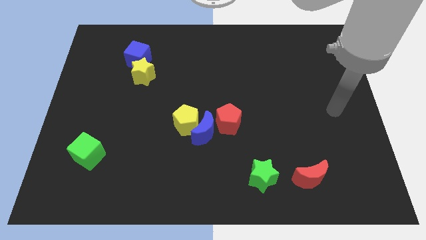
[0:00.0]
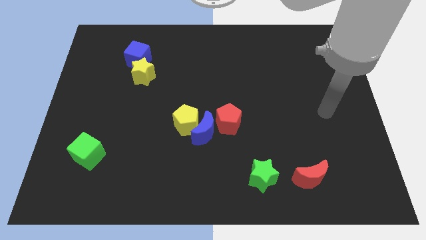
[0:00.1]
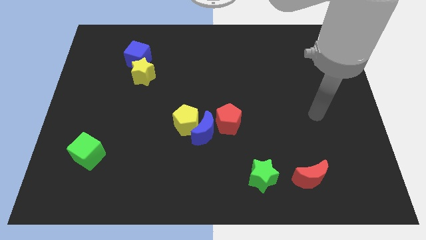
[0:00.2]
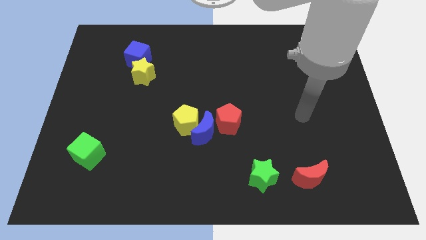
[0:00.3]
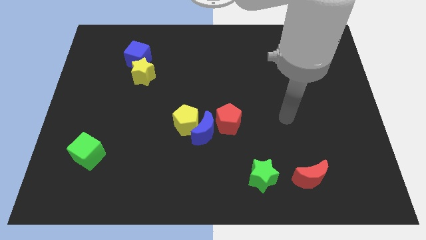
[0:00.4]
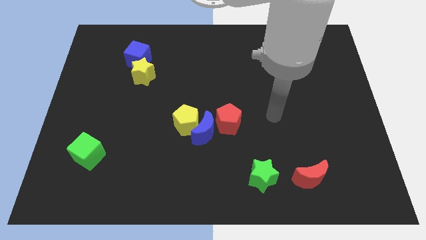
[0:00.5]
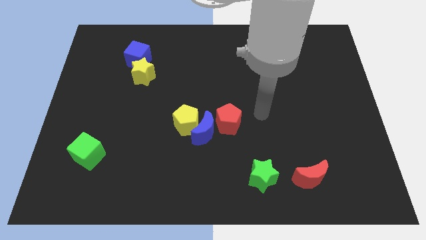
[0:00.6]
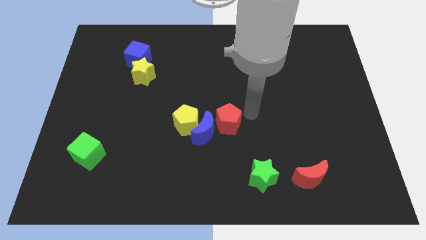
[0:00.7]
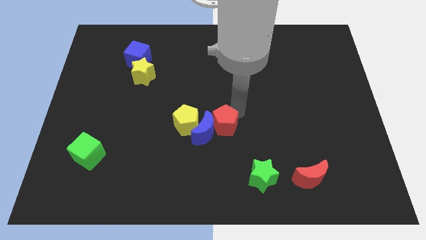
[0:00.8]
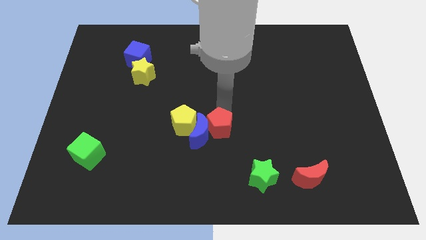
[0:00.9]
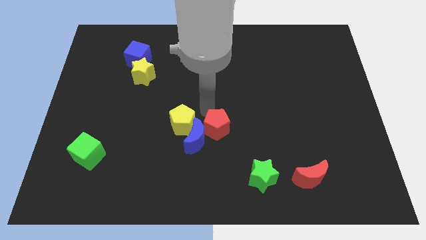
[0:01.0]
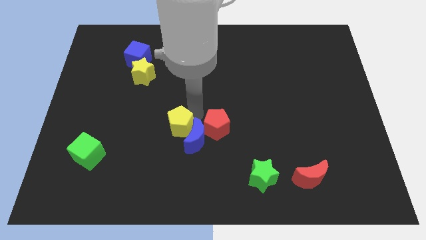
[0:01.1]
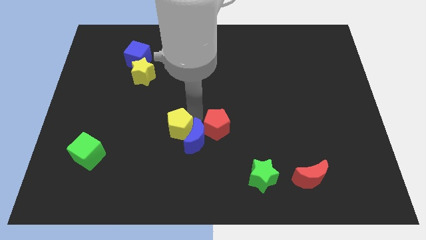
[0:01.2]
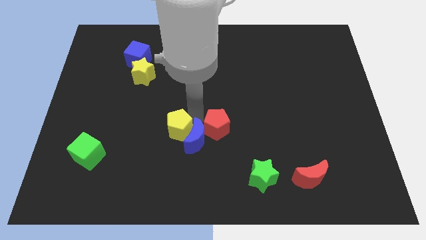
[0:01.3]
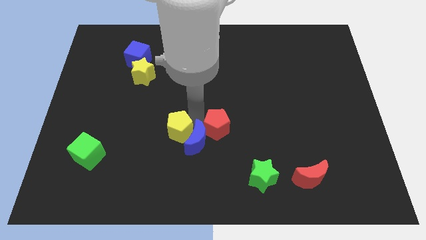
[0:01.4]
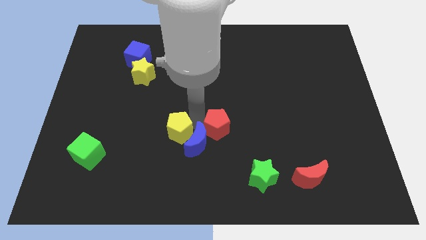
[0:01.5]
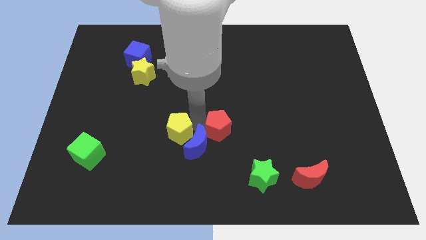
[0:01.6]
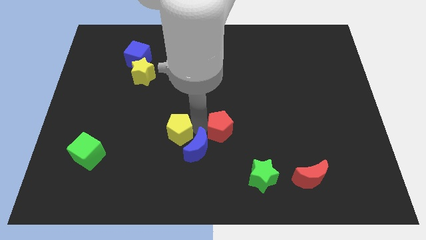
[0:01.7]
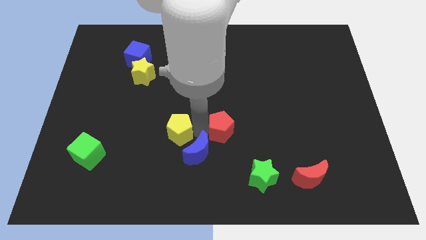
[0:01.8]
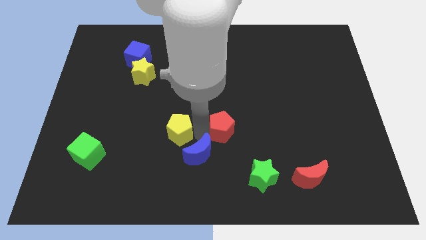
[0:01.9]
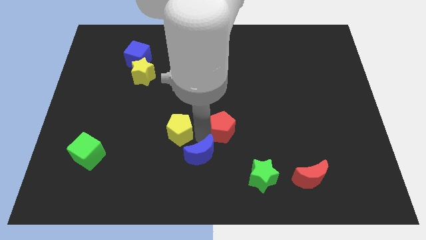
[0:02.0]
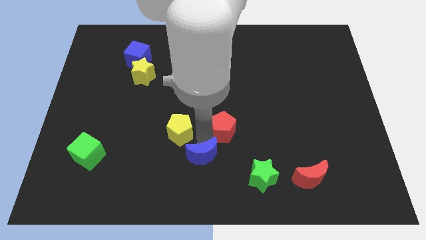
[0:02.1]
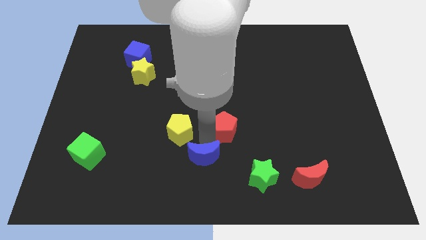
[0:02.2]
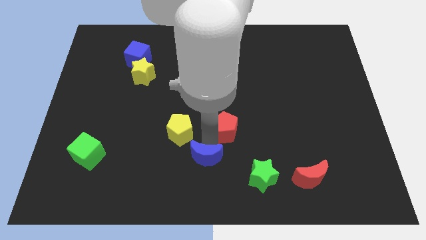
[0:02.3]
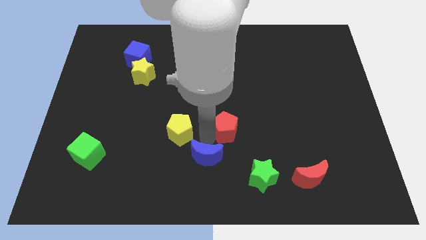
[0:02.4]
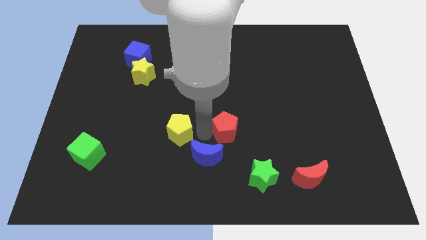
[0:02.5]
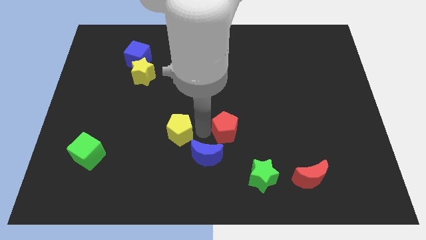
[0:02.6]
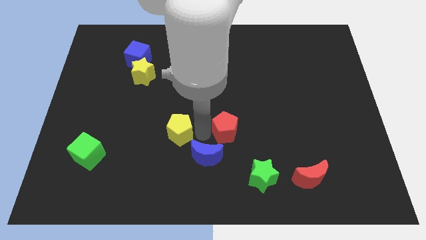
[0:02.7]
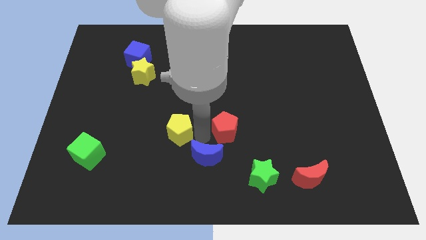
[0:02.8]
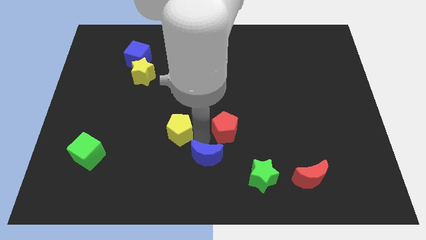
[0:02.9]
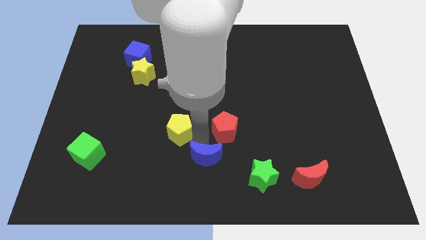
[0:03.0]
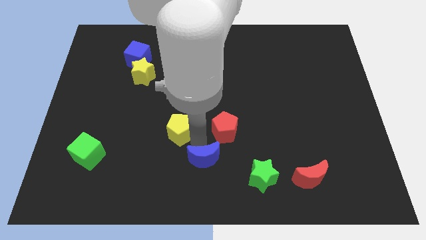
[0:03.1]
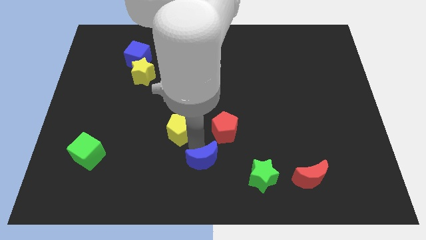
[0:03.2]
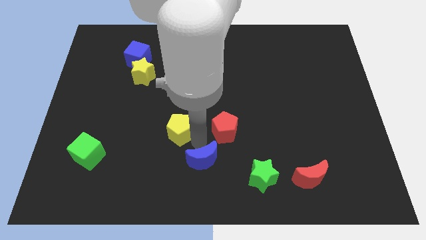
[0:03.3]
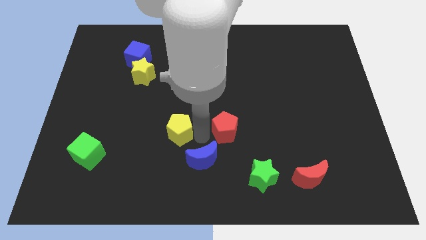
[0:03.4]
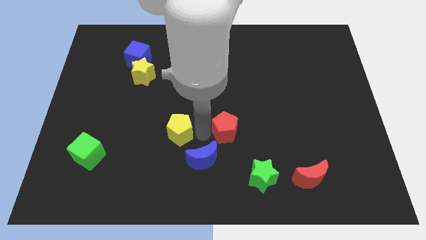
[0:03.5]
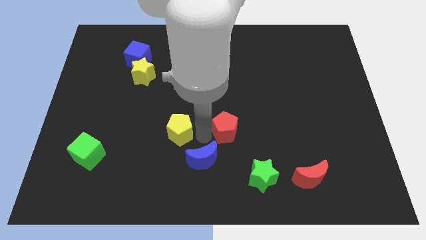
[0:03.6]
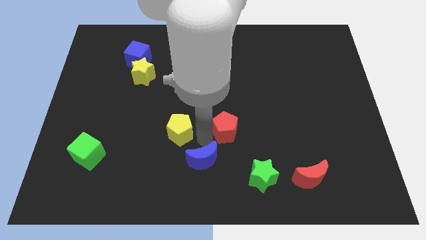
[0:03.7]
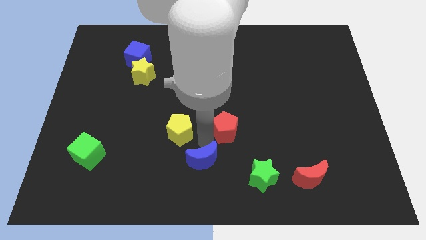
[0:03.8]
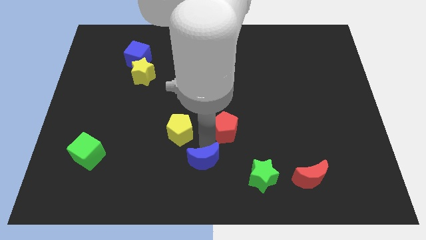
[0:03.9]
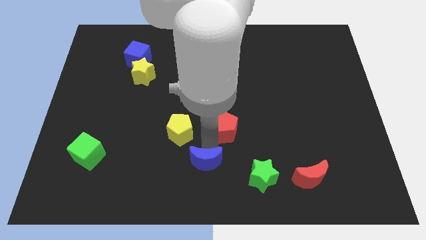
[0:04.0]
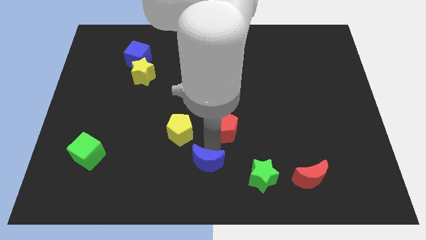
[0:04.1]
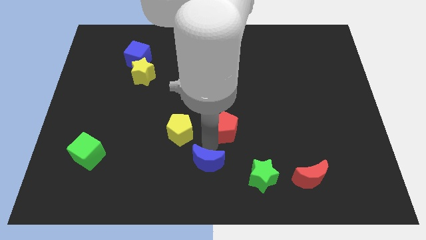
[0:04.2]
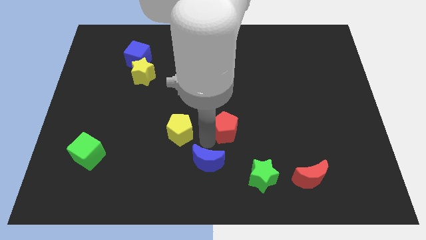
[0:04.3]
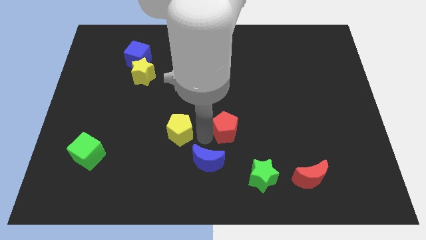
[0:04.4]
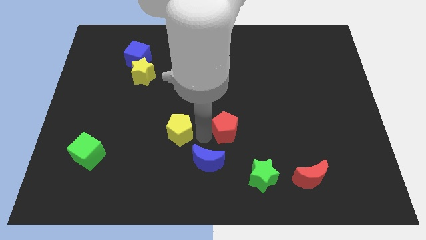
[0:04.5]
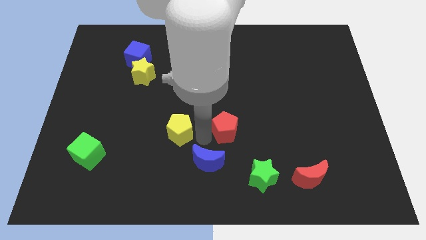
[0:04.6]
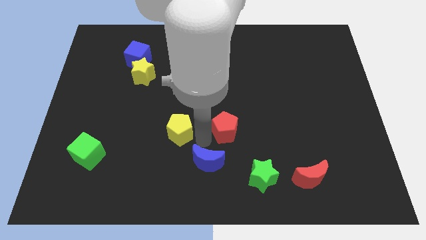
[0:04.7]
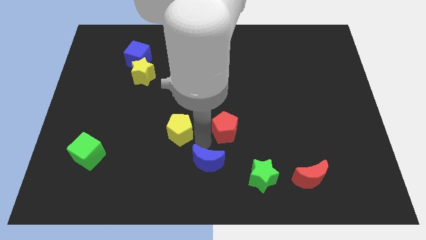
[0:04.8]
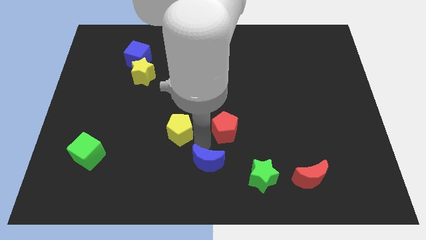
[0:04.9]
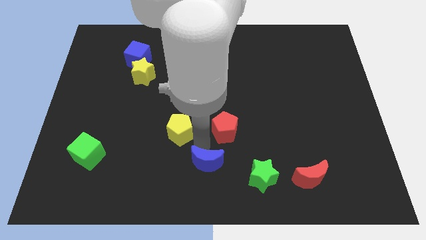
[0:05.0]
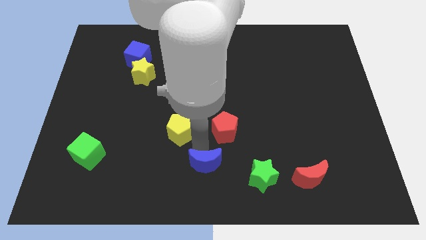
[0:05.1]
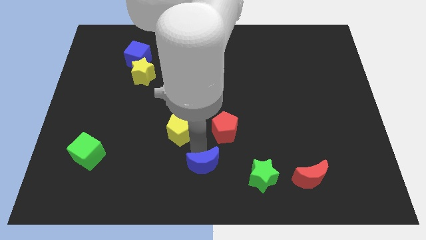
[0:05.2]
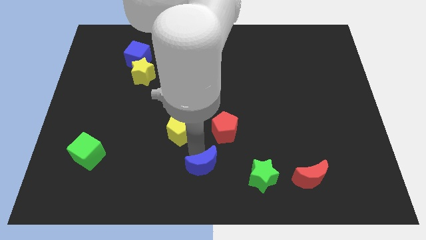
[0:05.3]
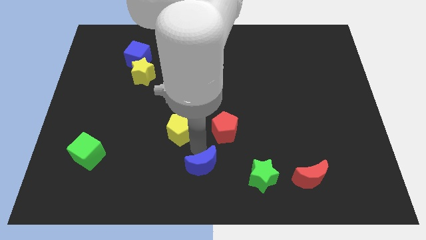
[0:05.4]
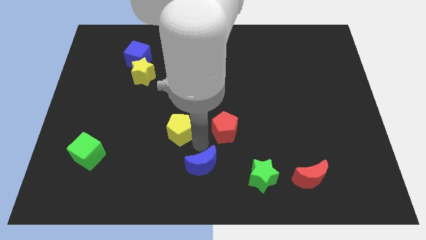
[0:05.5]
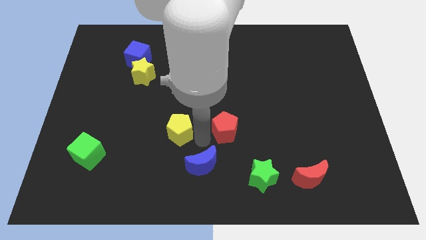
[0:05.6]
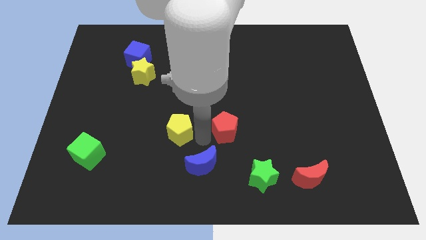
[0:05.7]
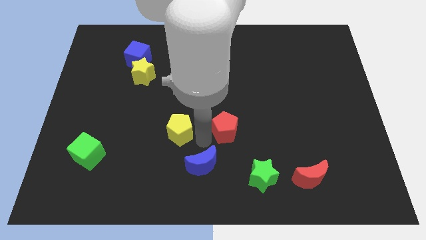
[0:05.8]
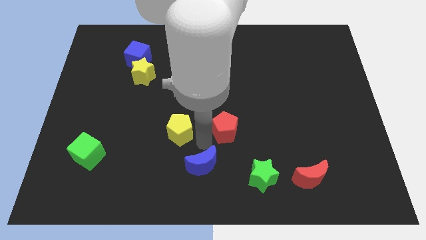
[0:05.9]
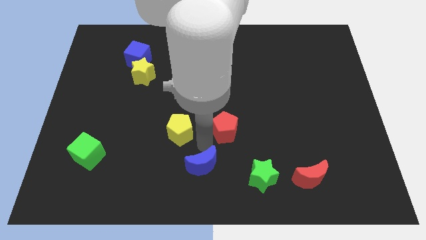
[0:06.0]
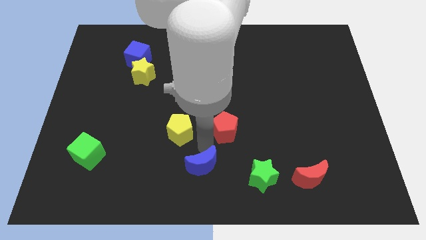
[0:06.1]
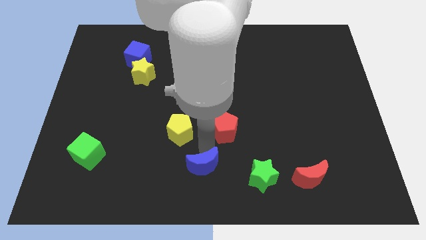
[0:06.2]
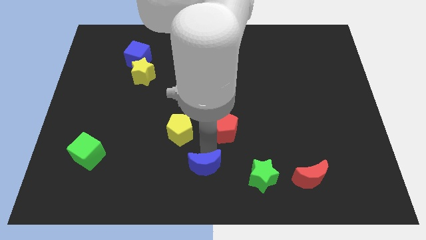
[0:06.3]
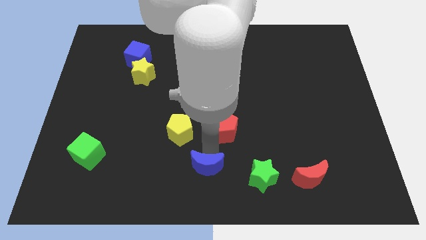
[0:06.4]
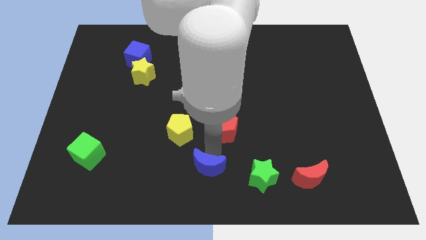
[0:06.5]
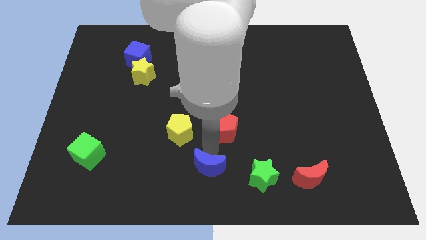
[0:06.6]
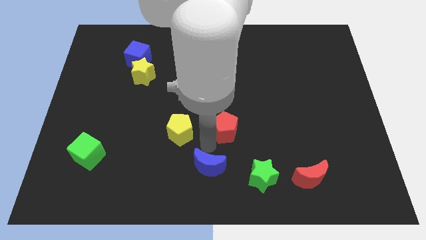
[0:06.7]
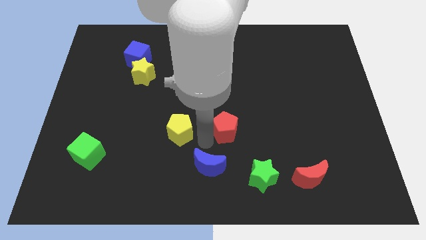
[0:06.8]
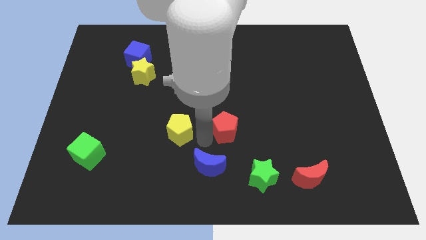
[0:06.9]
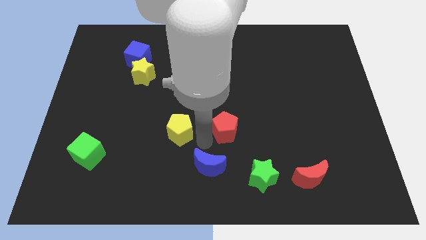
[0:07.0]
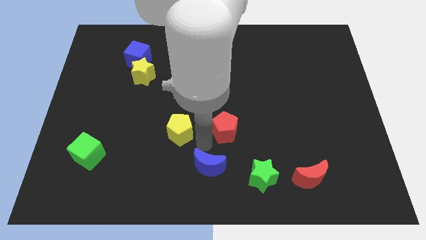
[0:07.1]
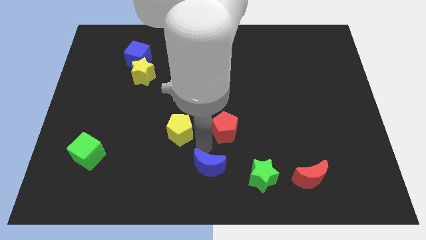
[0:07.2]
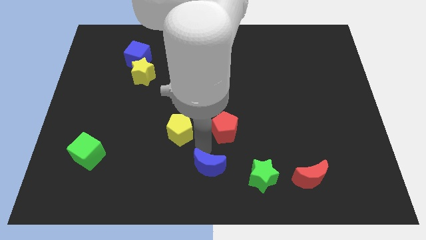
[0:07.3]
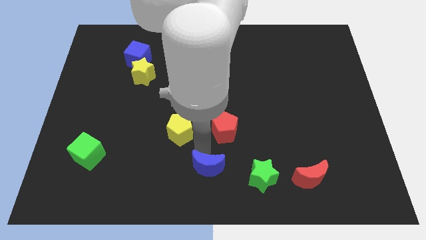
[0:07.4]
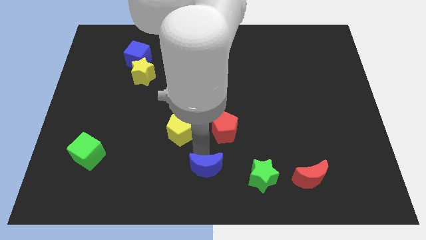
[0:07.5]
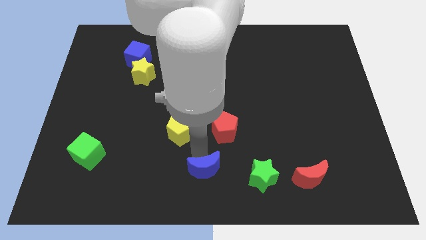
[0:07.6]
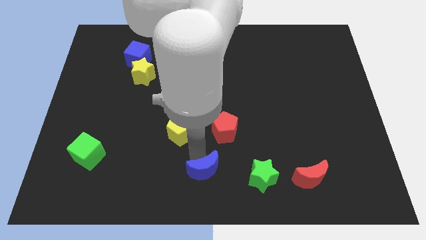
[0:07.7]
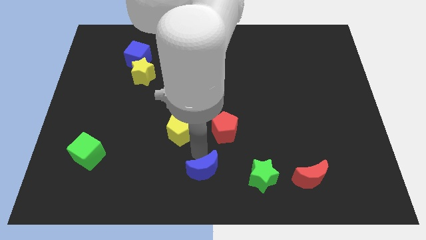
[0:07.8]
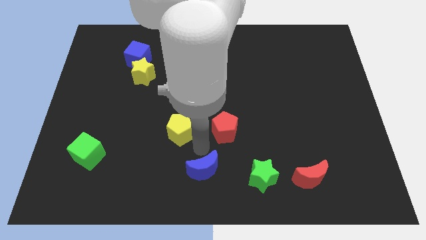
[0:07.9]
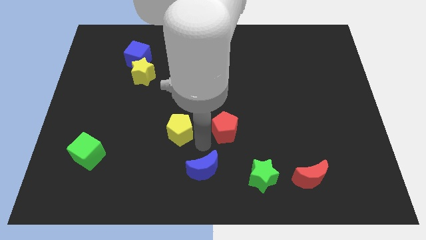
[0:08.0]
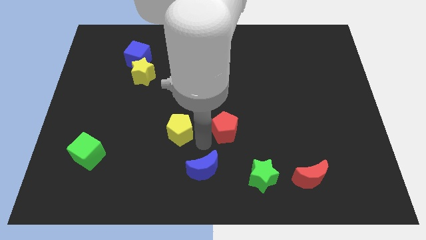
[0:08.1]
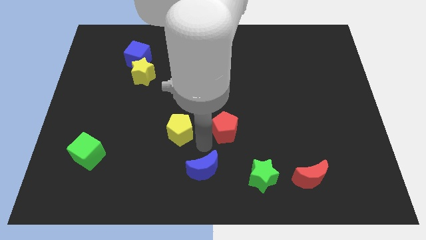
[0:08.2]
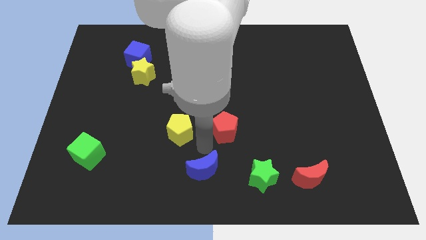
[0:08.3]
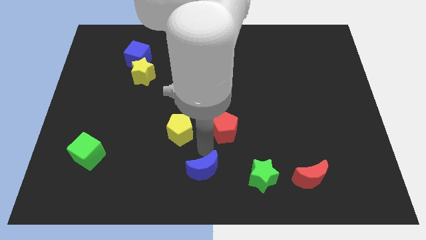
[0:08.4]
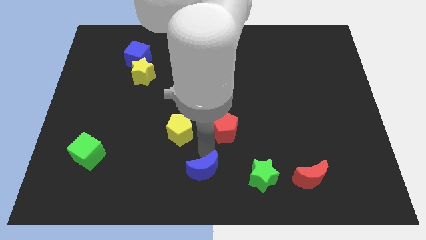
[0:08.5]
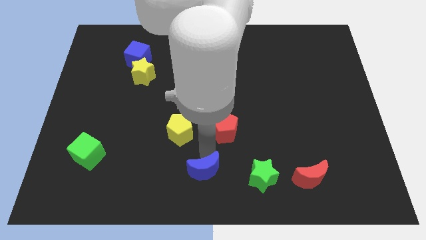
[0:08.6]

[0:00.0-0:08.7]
move the blue moon away from the yellow pentagon and red pentagon

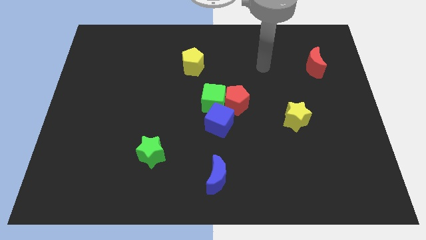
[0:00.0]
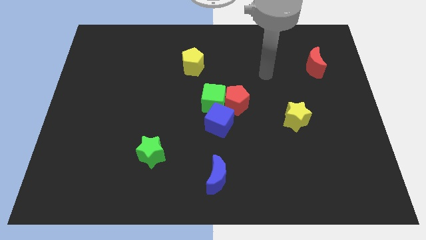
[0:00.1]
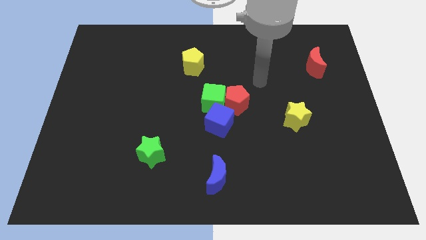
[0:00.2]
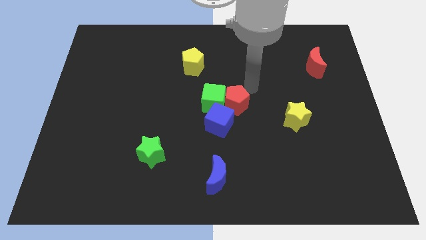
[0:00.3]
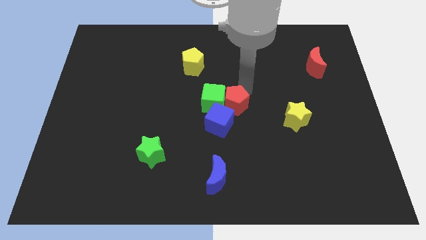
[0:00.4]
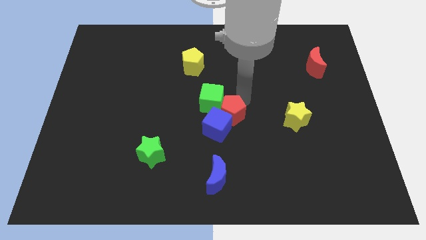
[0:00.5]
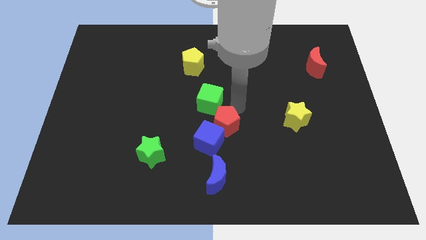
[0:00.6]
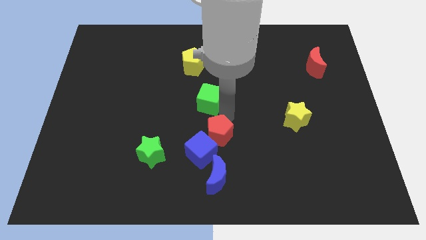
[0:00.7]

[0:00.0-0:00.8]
separate the green cube from the red pentagon and blue cube
